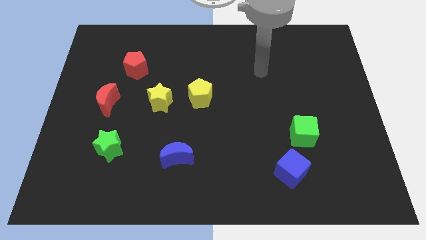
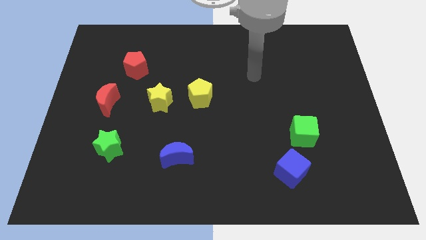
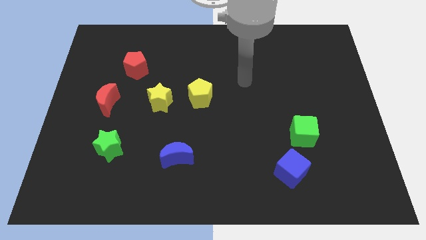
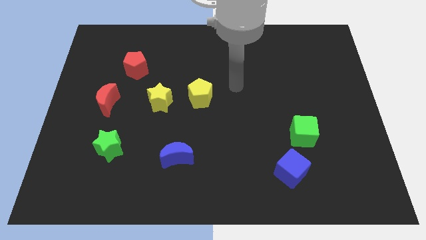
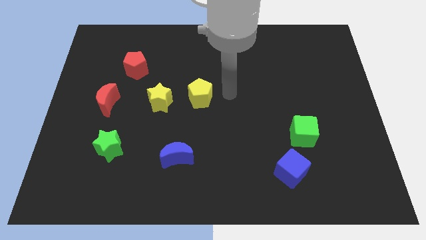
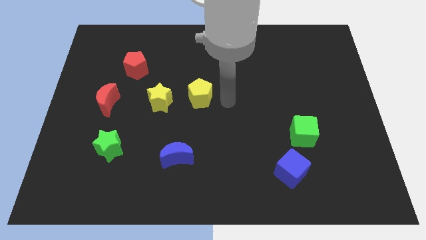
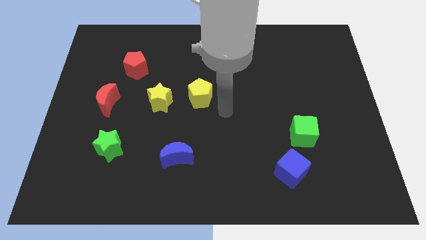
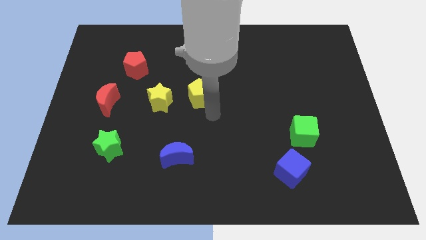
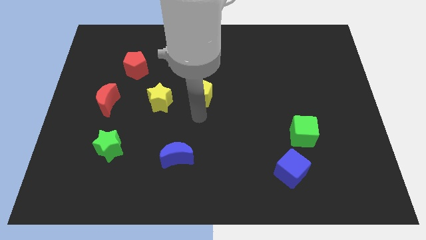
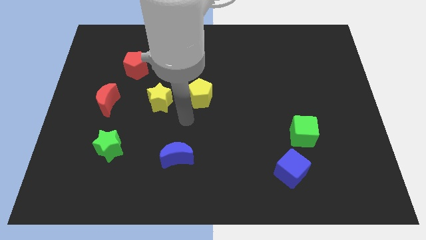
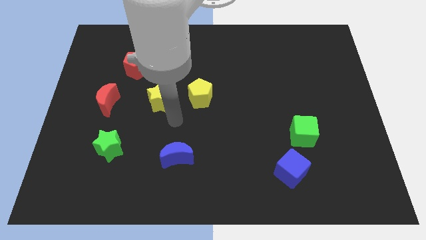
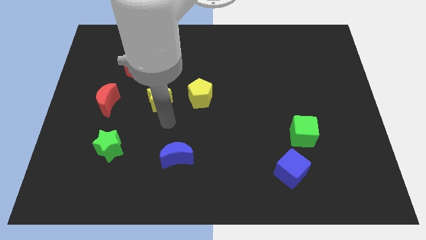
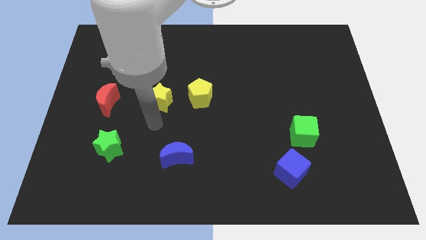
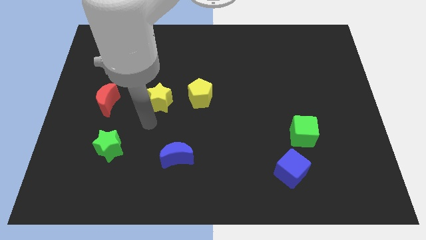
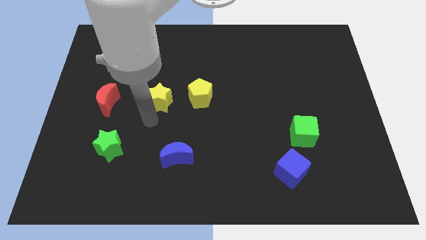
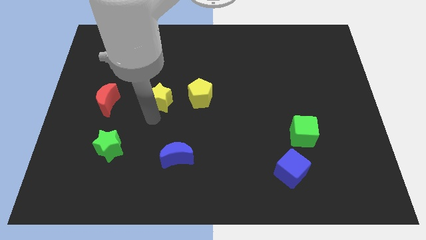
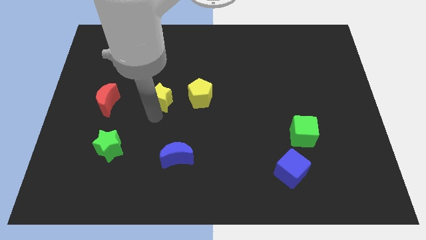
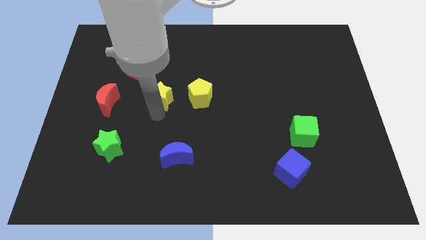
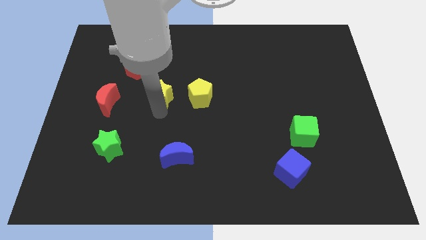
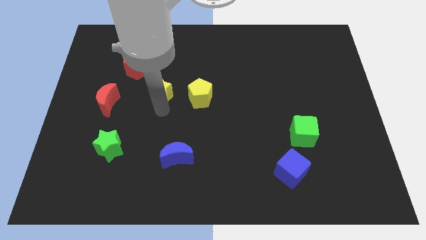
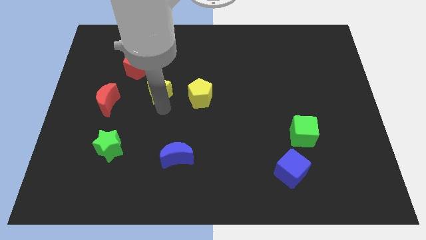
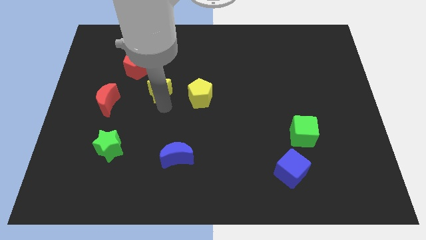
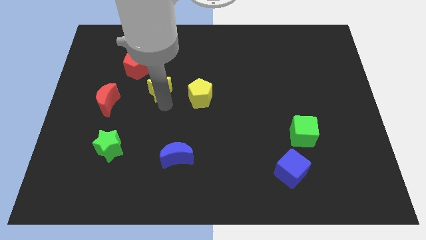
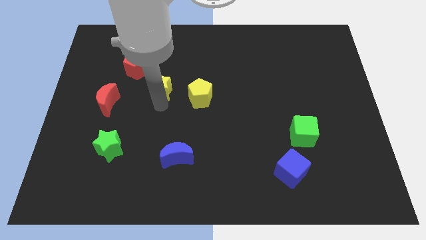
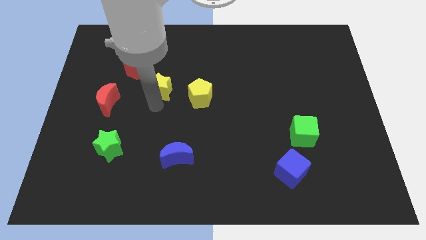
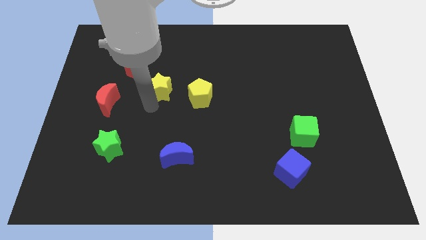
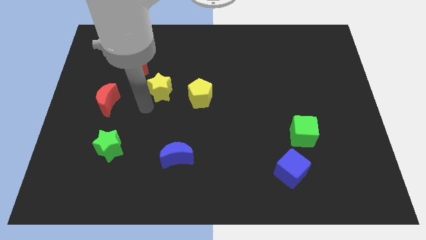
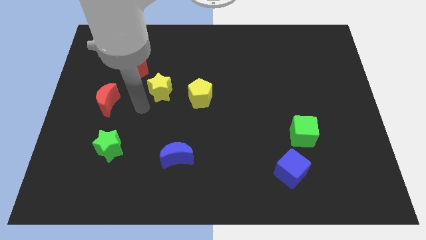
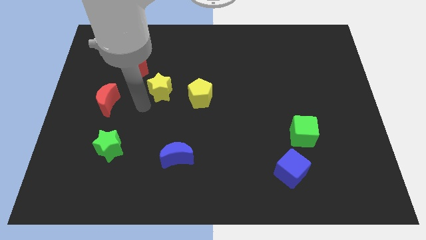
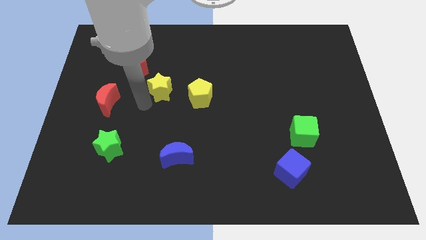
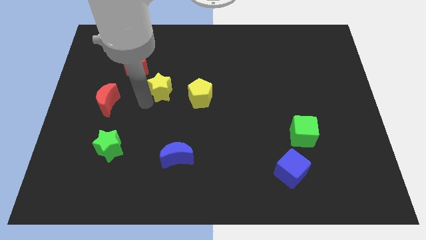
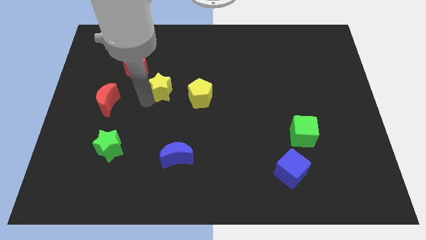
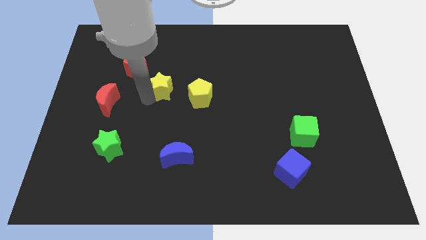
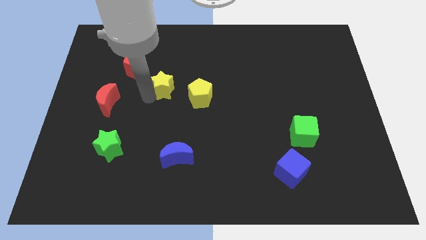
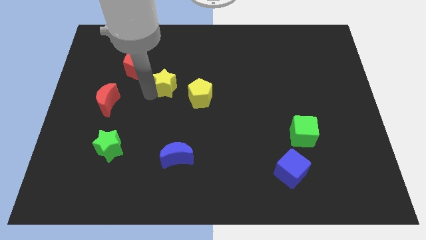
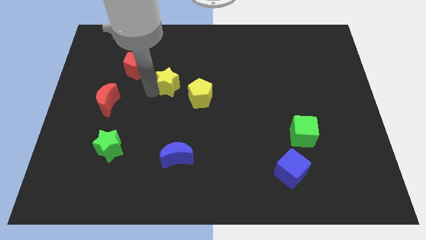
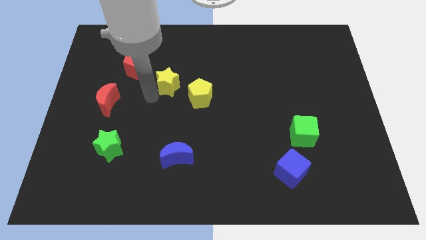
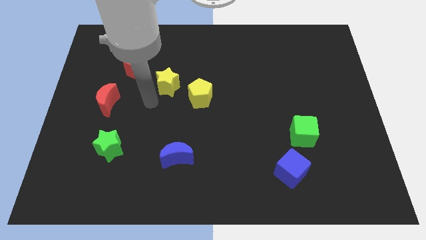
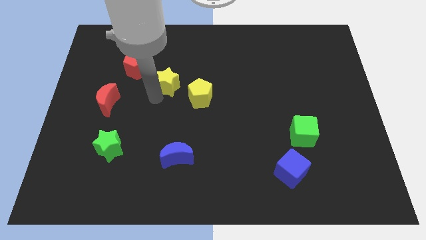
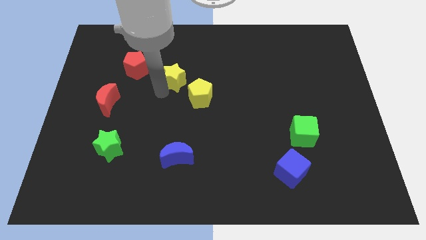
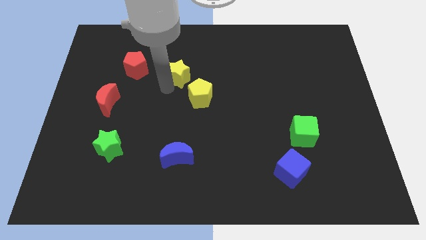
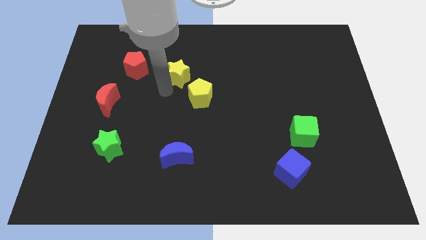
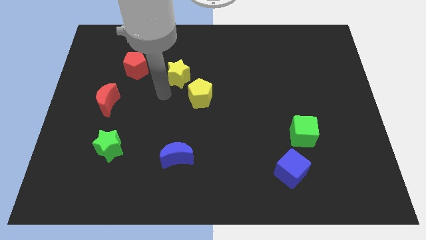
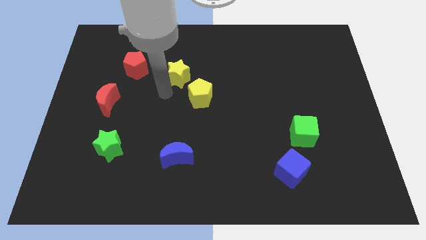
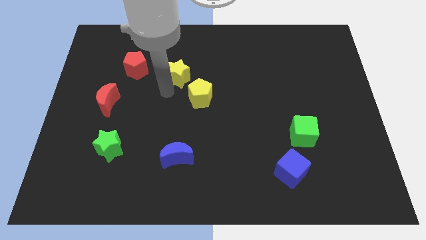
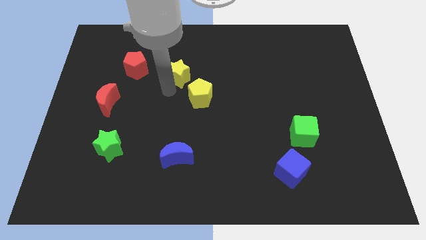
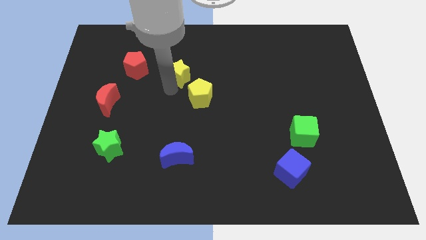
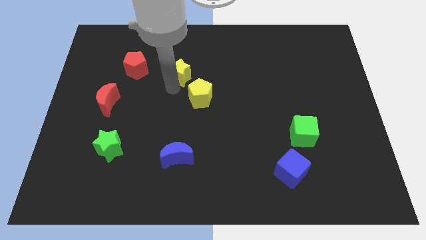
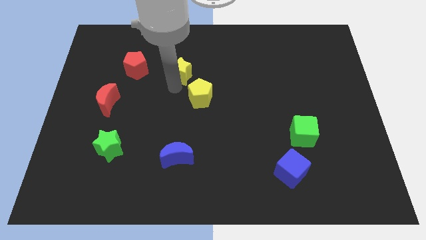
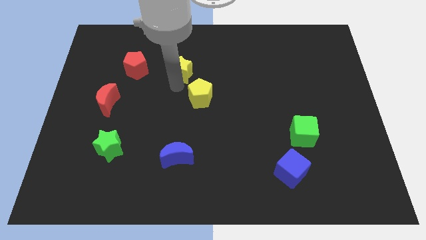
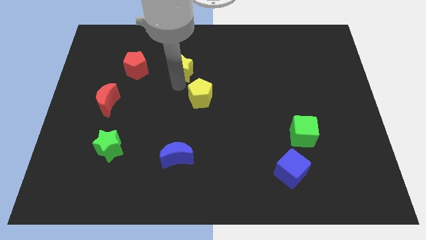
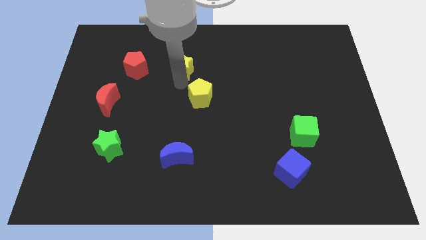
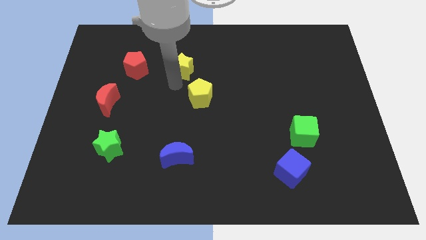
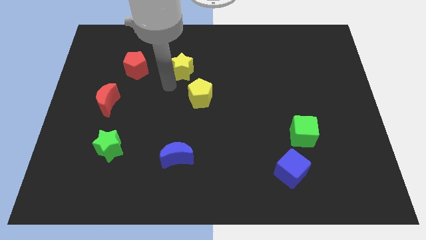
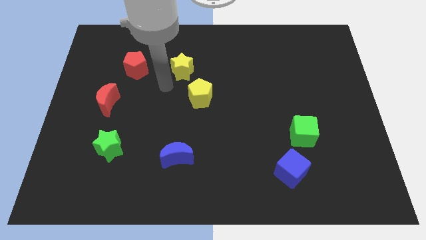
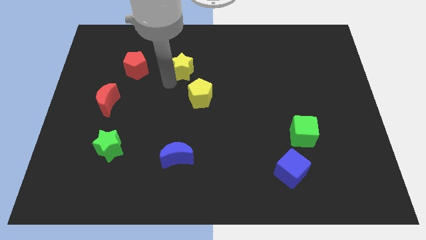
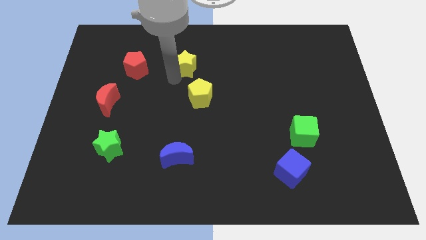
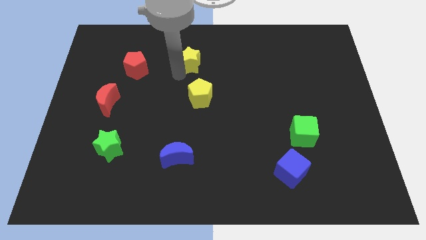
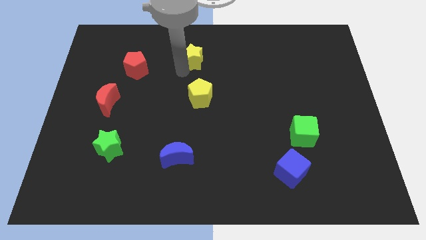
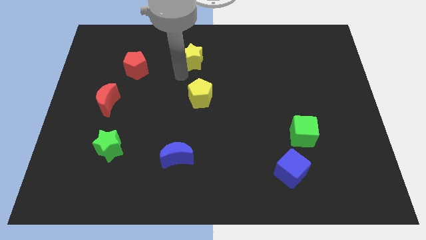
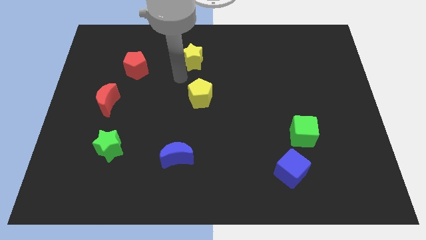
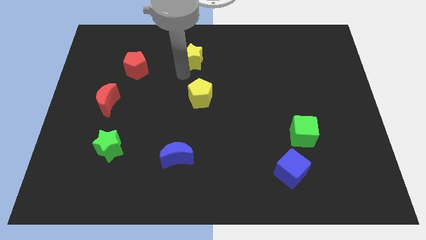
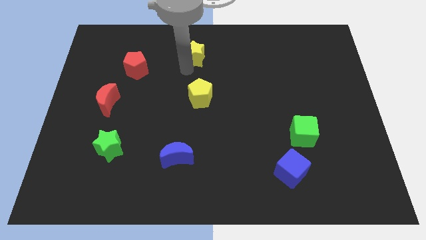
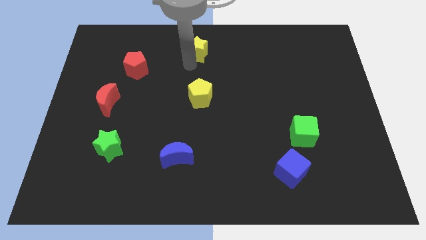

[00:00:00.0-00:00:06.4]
move the yellow star to the top
